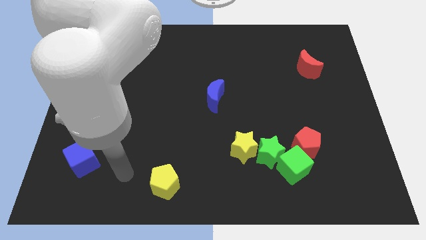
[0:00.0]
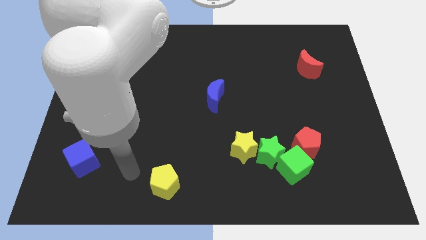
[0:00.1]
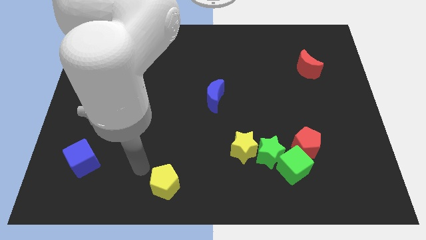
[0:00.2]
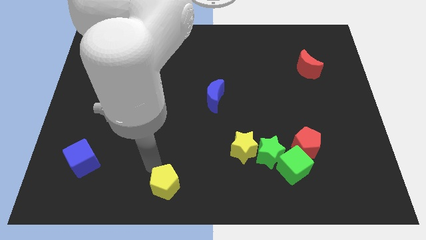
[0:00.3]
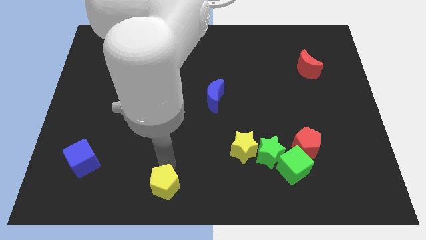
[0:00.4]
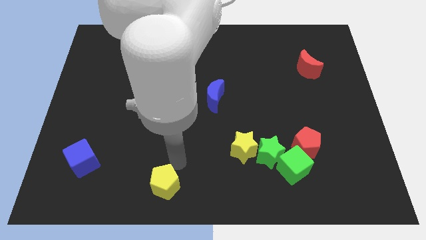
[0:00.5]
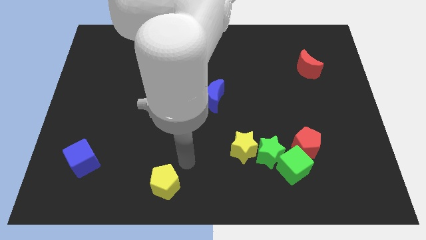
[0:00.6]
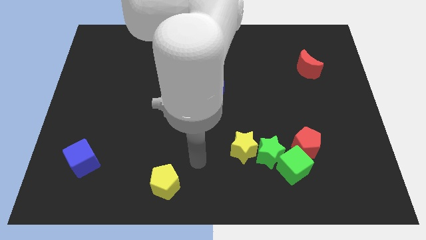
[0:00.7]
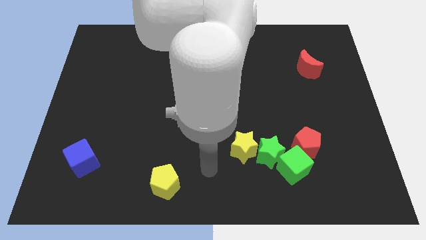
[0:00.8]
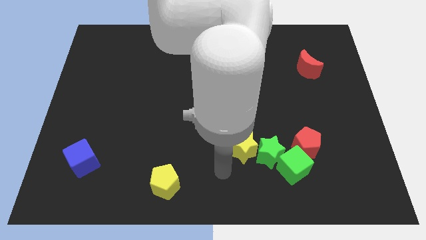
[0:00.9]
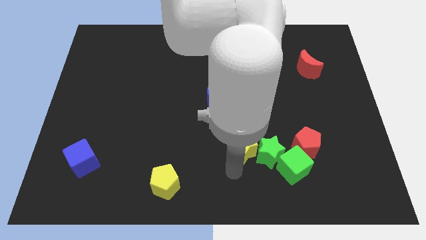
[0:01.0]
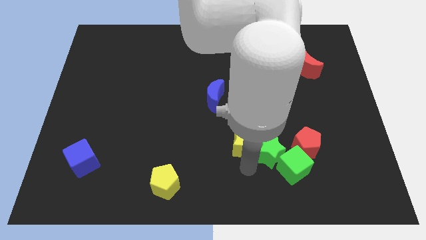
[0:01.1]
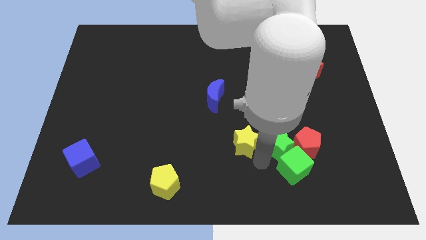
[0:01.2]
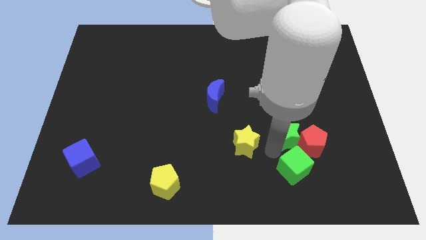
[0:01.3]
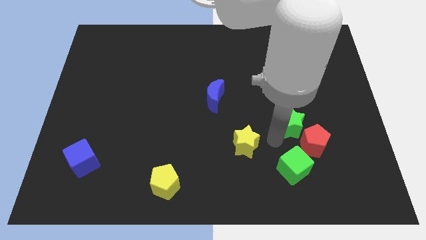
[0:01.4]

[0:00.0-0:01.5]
pull the yellow star apart from the green star

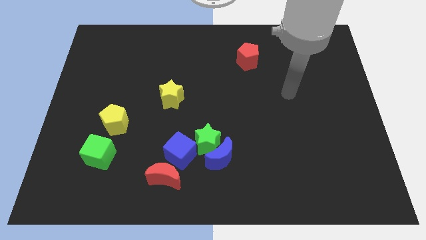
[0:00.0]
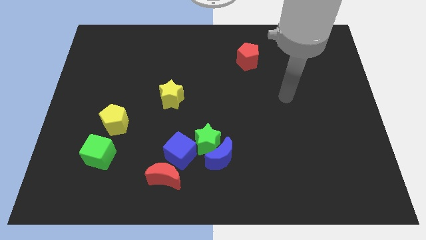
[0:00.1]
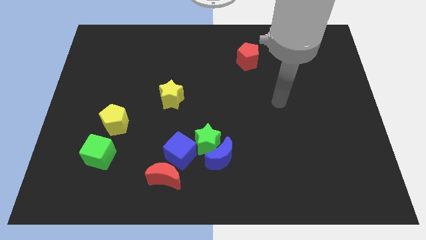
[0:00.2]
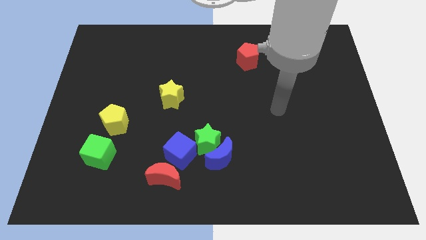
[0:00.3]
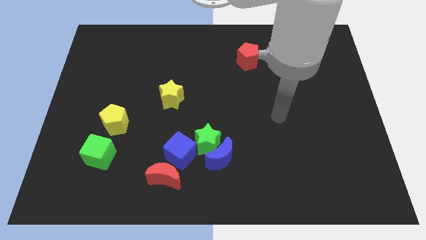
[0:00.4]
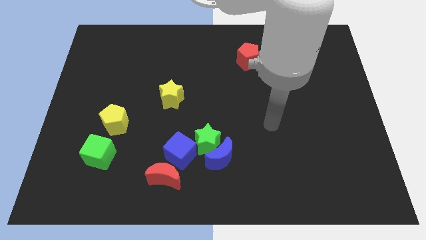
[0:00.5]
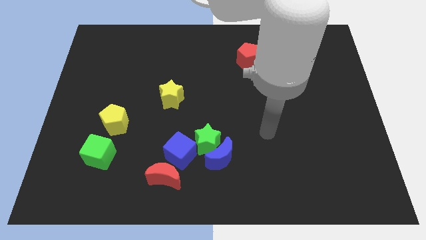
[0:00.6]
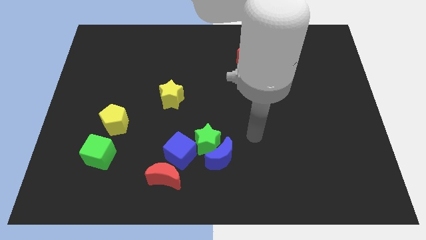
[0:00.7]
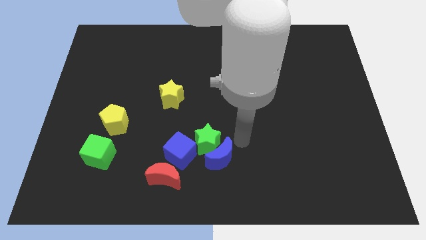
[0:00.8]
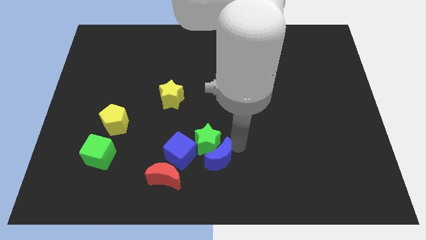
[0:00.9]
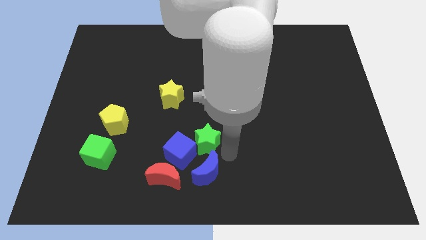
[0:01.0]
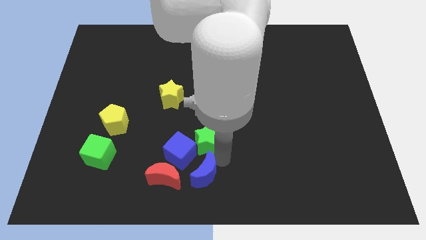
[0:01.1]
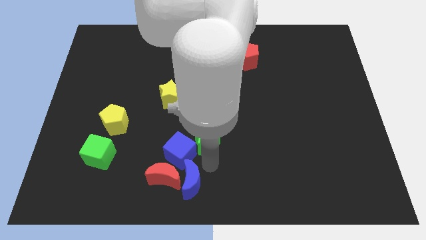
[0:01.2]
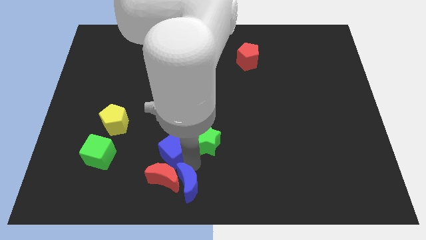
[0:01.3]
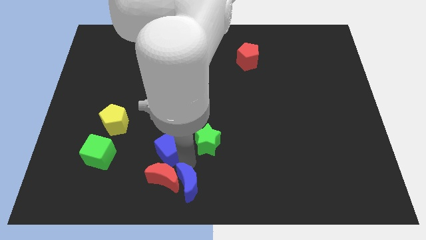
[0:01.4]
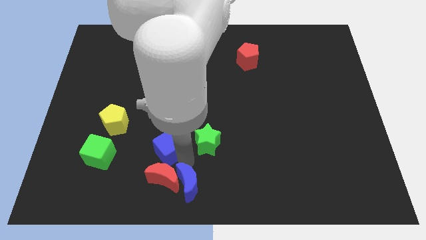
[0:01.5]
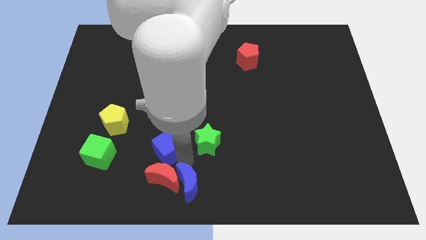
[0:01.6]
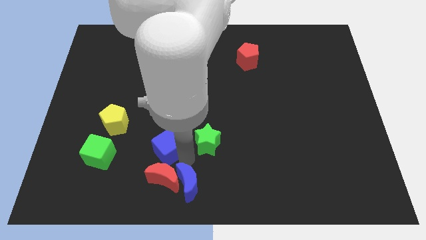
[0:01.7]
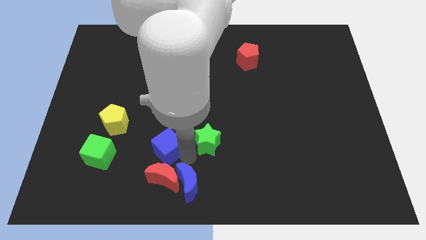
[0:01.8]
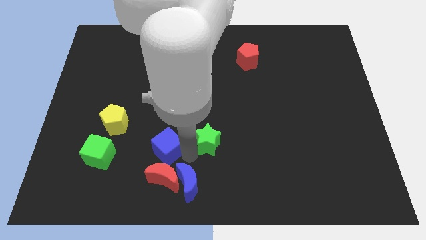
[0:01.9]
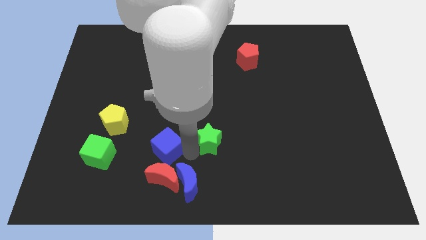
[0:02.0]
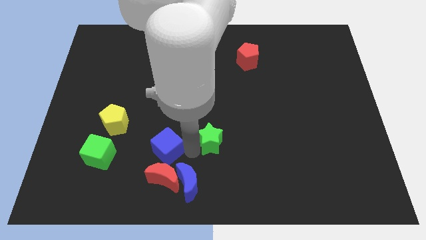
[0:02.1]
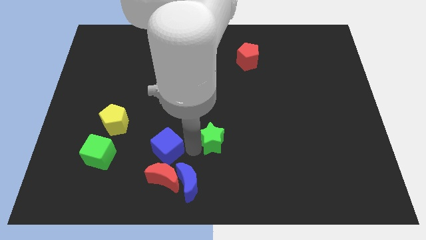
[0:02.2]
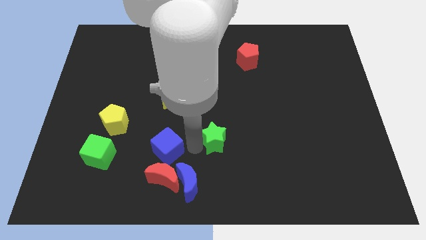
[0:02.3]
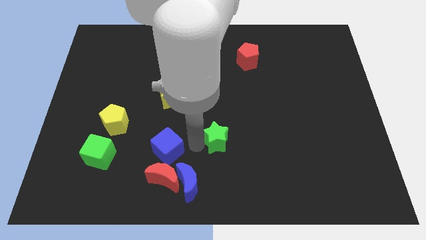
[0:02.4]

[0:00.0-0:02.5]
pull the green star apart from the blue moon and blue cube

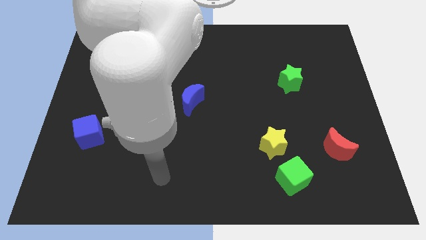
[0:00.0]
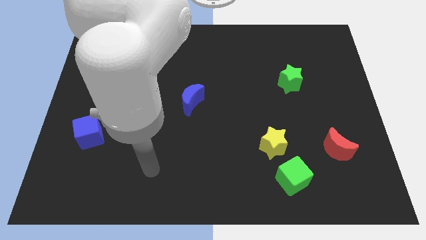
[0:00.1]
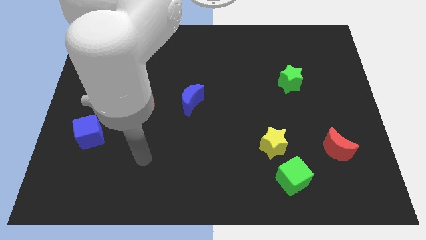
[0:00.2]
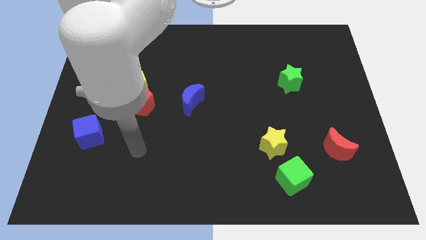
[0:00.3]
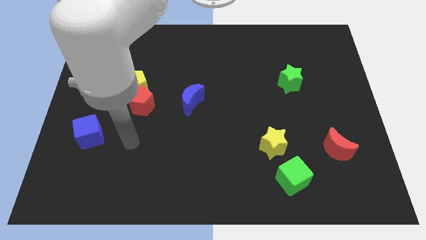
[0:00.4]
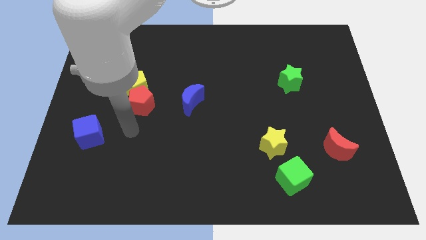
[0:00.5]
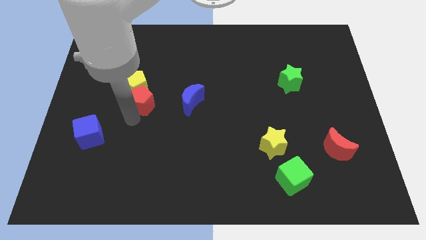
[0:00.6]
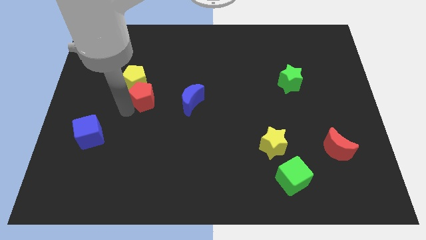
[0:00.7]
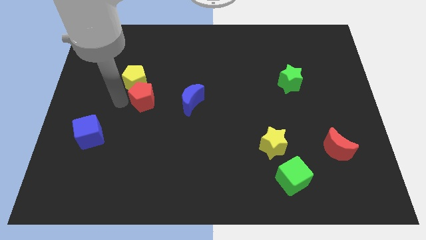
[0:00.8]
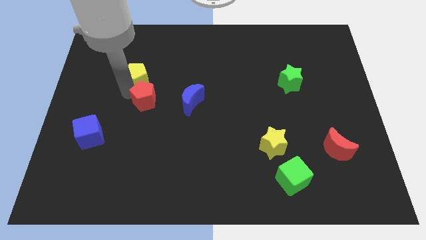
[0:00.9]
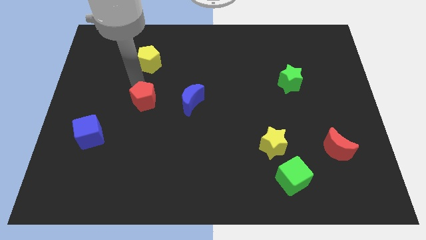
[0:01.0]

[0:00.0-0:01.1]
pull the red pentagon apart from the yellow pentagon

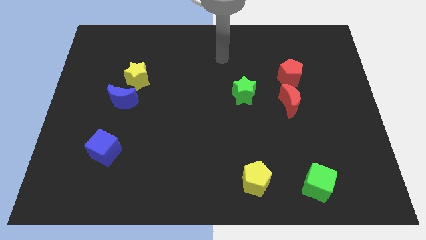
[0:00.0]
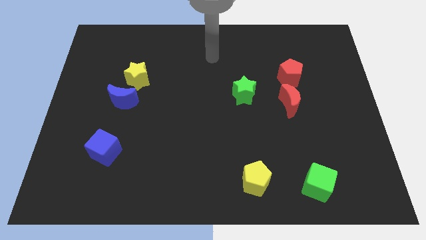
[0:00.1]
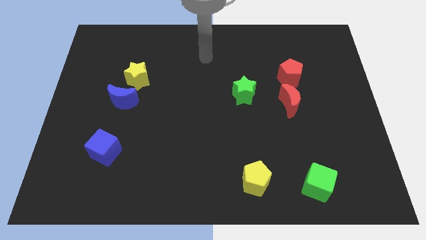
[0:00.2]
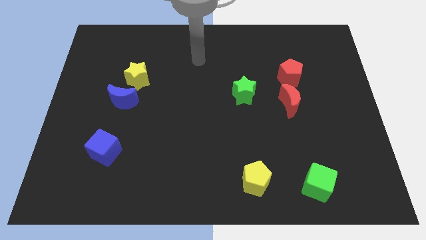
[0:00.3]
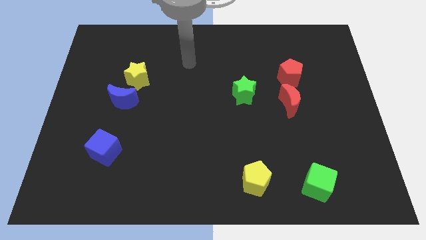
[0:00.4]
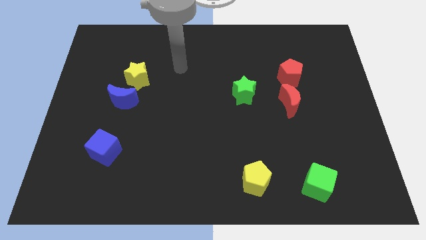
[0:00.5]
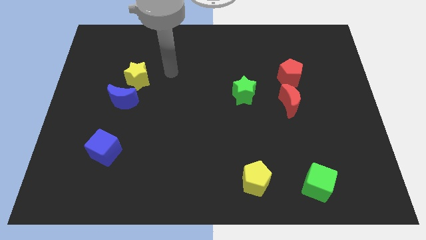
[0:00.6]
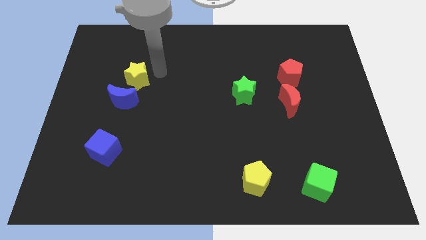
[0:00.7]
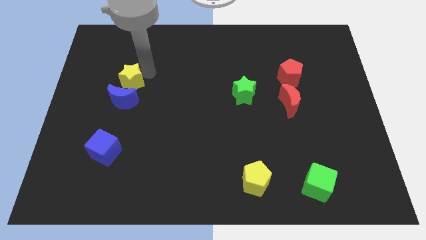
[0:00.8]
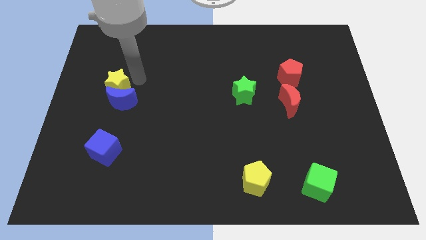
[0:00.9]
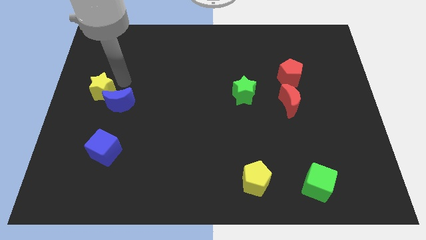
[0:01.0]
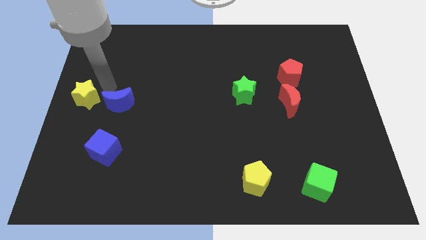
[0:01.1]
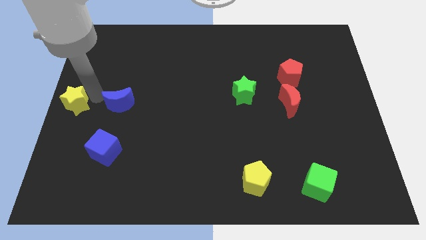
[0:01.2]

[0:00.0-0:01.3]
move the blue moon away from the yellow star

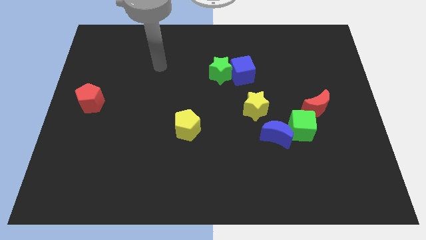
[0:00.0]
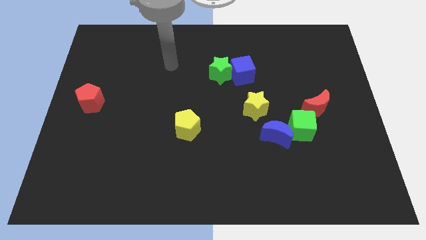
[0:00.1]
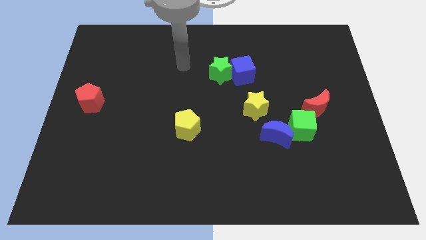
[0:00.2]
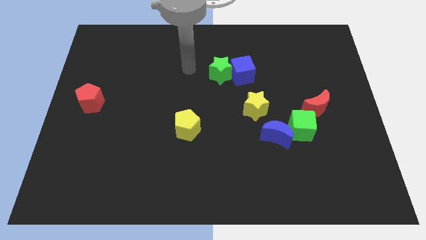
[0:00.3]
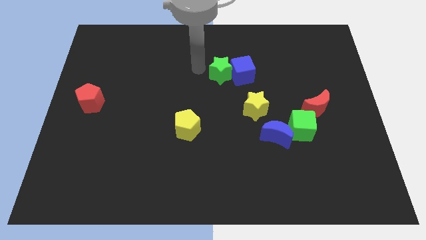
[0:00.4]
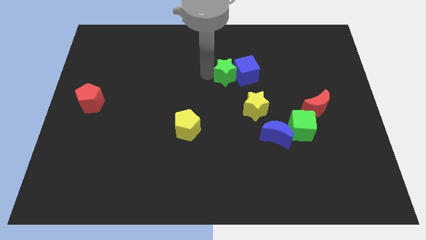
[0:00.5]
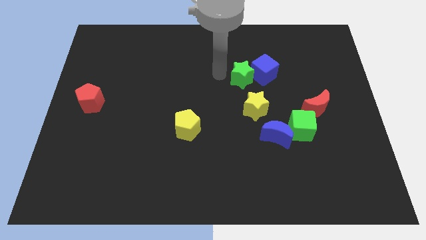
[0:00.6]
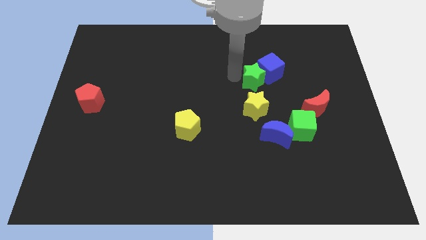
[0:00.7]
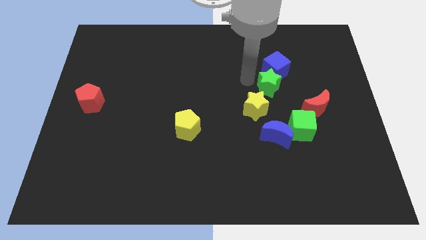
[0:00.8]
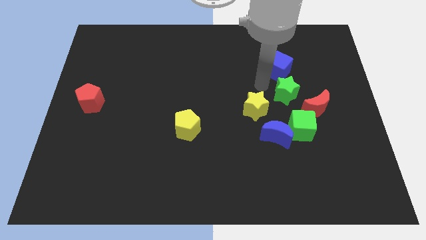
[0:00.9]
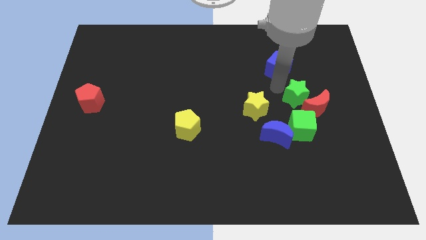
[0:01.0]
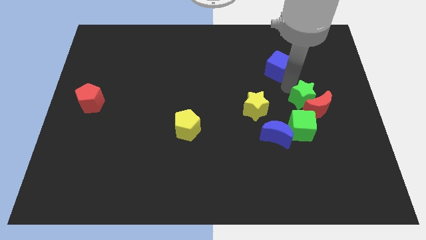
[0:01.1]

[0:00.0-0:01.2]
move the blue cube away from the green star

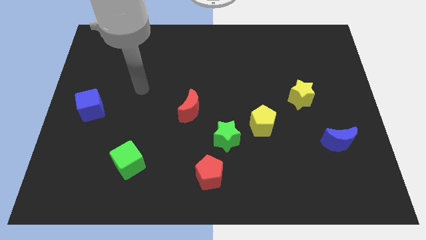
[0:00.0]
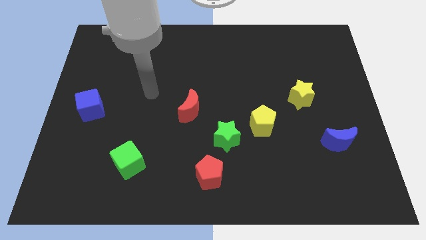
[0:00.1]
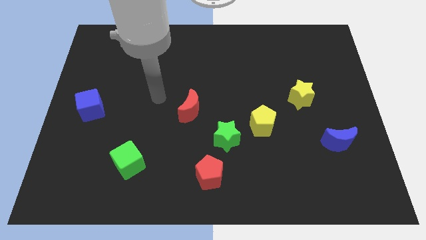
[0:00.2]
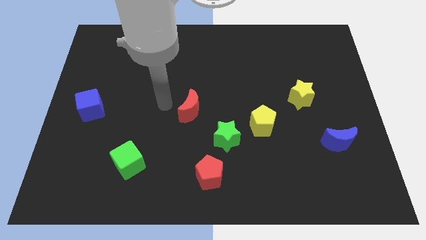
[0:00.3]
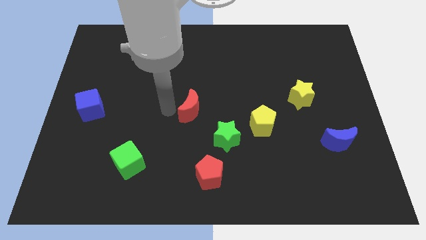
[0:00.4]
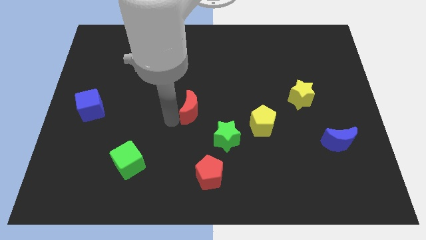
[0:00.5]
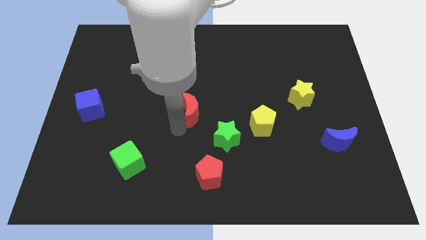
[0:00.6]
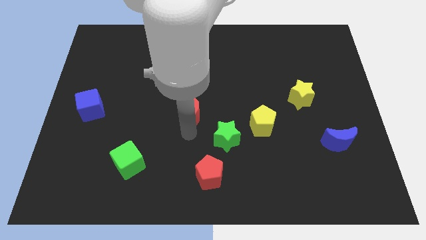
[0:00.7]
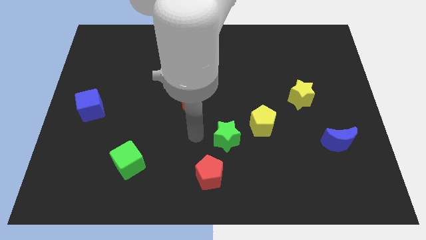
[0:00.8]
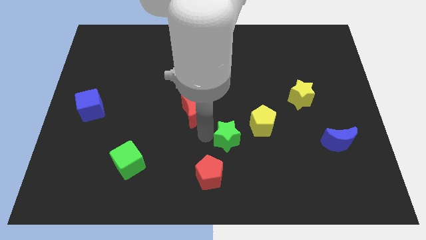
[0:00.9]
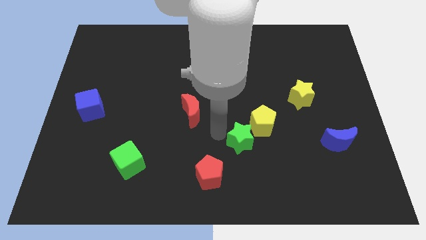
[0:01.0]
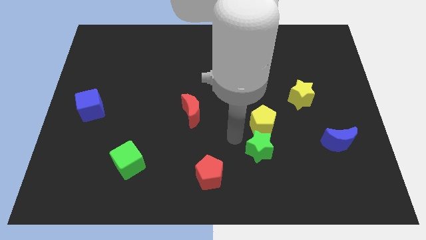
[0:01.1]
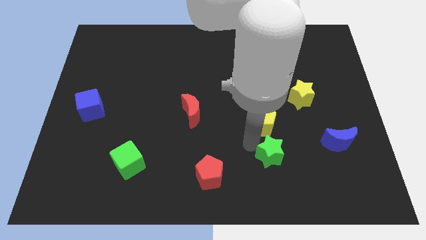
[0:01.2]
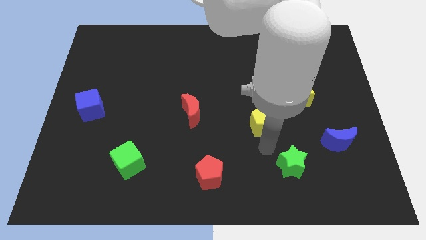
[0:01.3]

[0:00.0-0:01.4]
pull the yellow pentagon apart from the green star

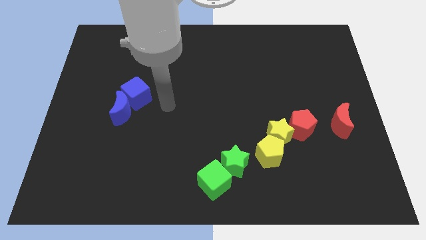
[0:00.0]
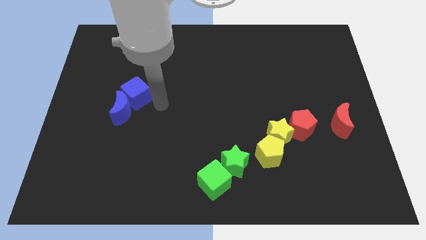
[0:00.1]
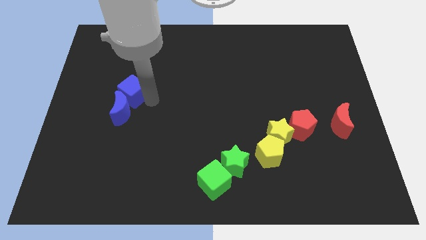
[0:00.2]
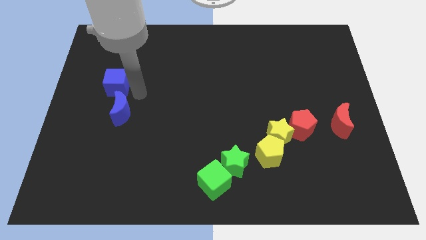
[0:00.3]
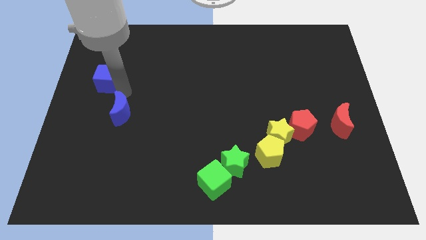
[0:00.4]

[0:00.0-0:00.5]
pull the blue moon apart from the blue cube
